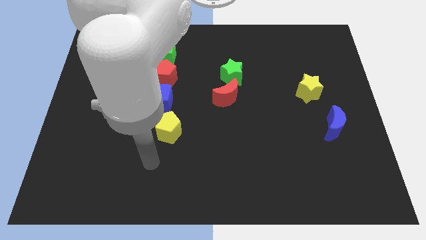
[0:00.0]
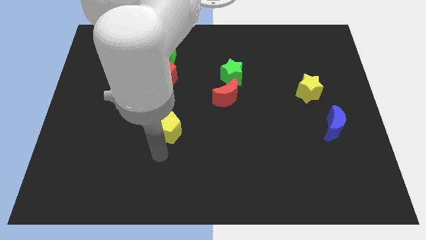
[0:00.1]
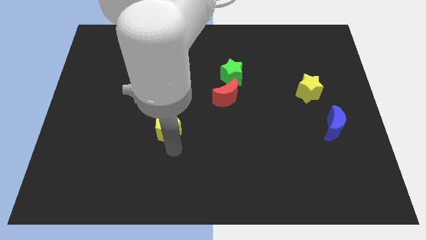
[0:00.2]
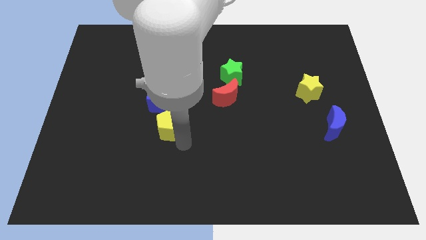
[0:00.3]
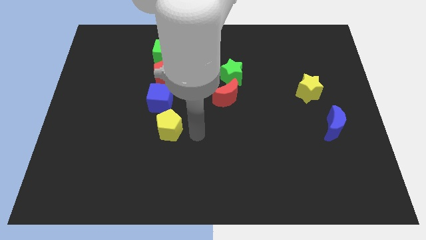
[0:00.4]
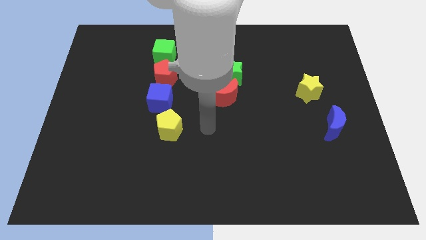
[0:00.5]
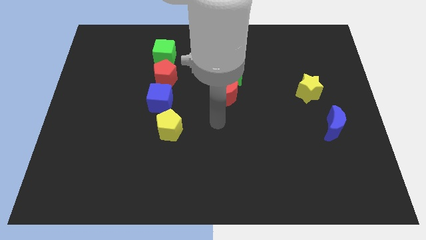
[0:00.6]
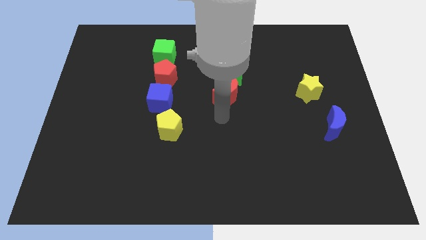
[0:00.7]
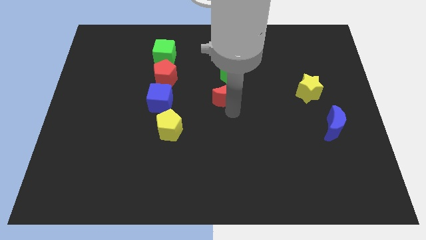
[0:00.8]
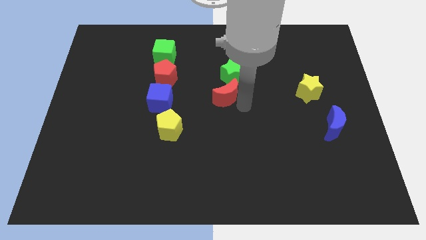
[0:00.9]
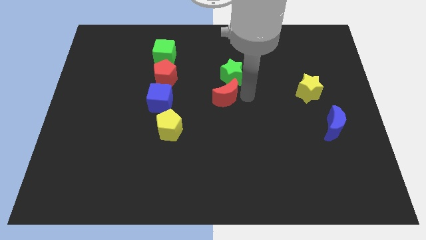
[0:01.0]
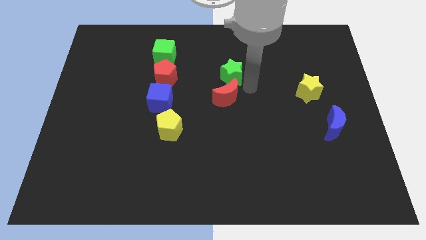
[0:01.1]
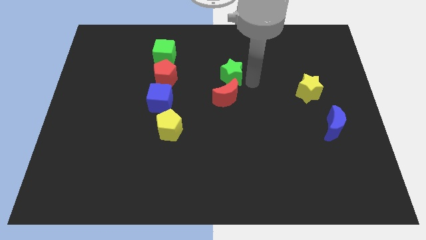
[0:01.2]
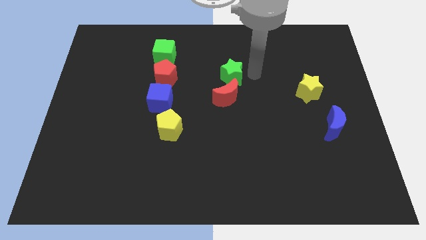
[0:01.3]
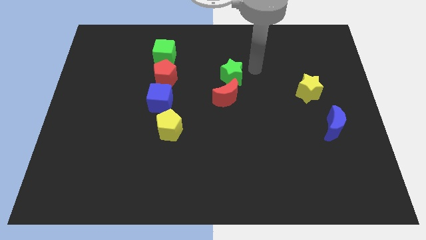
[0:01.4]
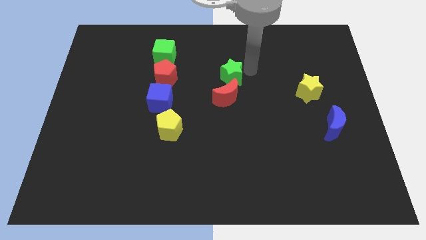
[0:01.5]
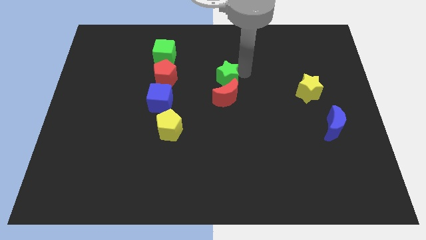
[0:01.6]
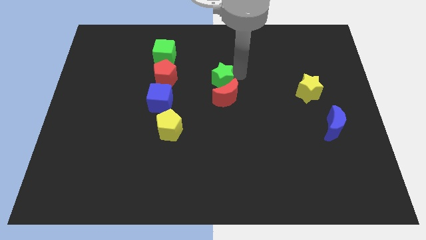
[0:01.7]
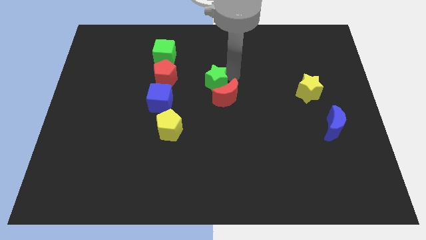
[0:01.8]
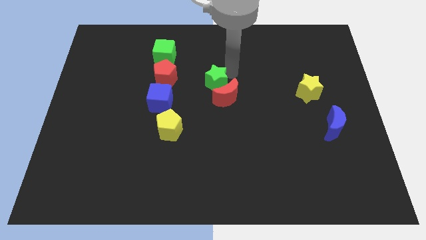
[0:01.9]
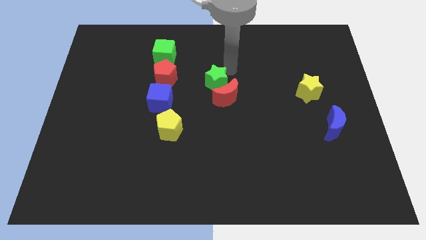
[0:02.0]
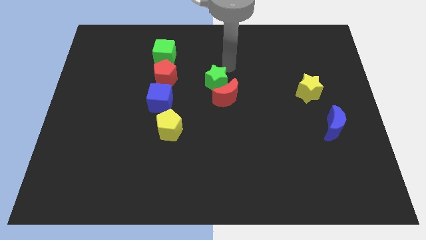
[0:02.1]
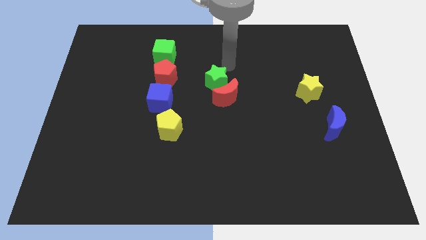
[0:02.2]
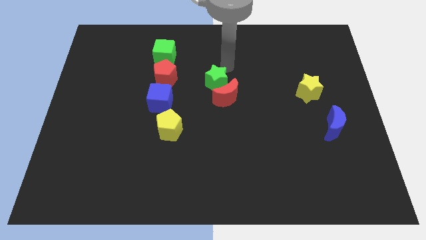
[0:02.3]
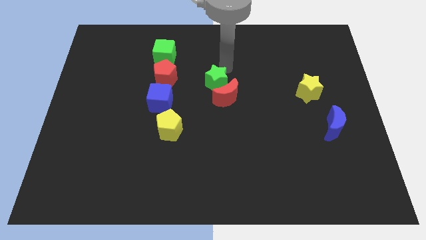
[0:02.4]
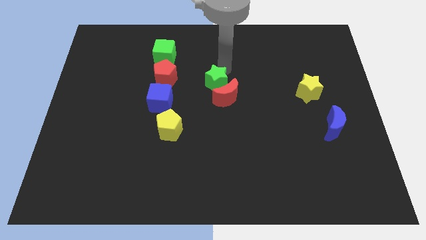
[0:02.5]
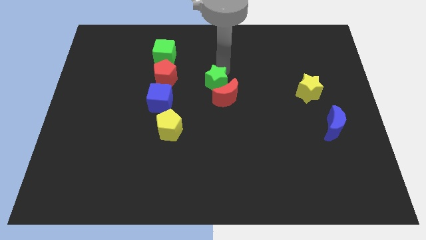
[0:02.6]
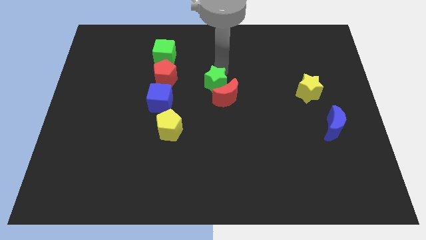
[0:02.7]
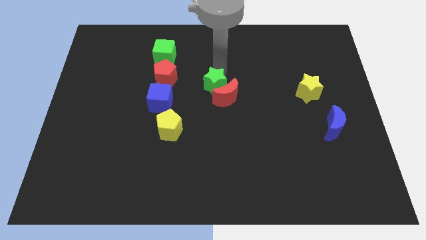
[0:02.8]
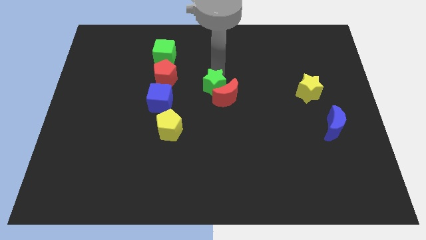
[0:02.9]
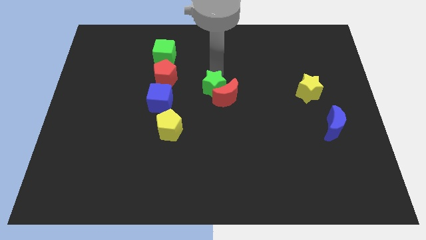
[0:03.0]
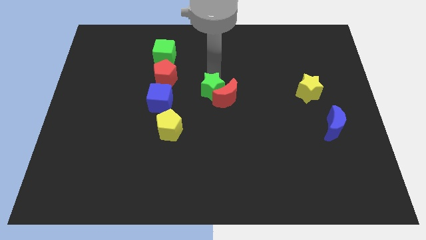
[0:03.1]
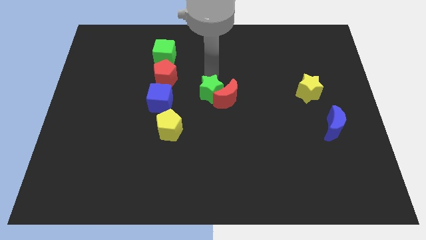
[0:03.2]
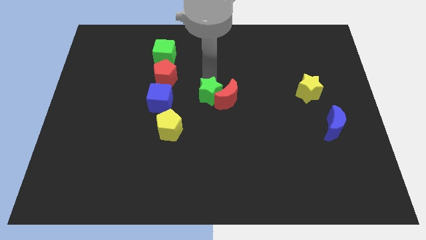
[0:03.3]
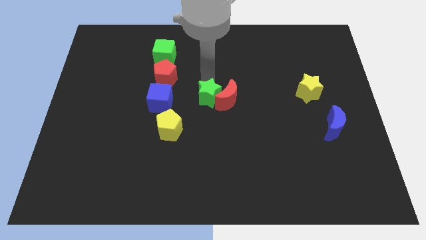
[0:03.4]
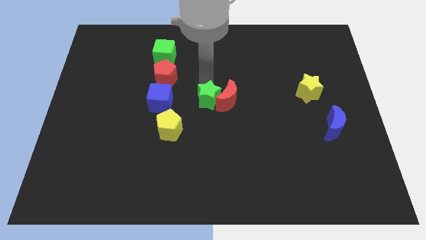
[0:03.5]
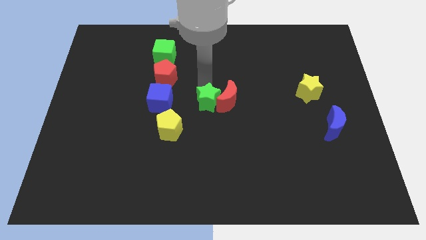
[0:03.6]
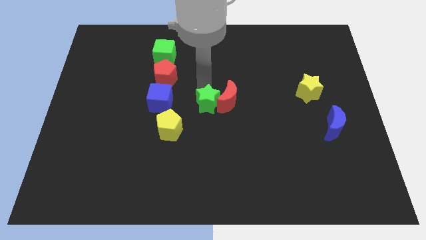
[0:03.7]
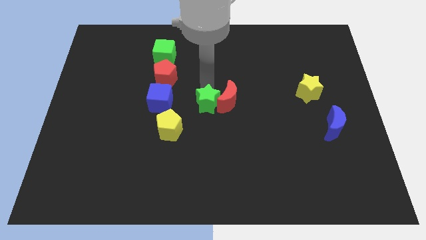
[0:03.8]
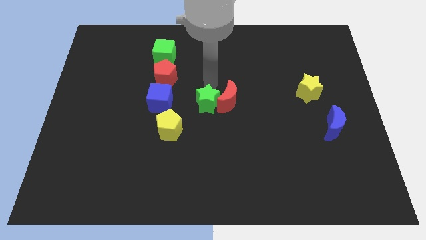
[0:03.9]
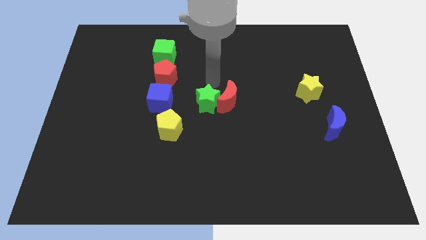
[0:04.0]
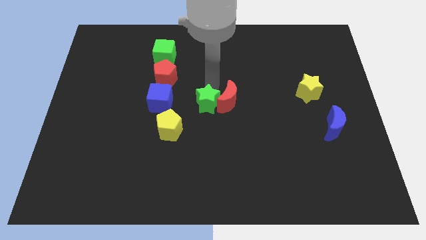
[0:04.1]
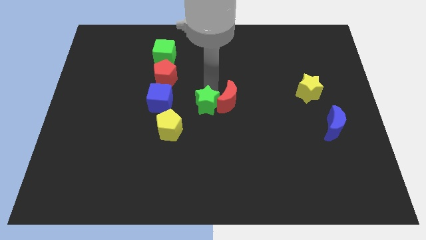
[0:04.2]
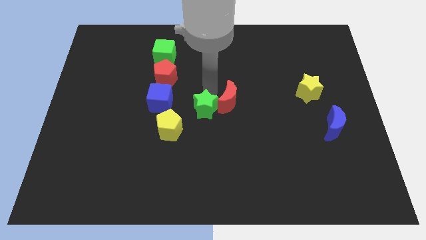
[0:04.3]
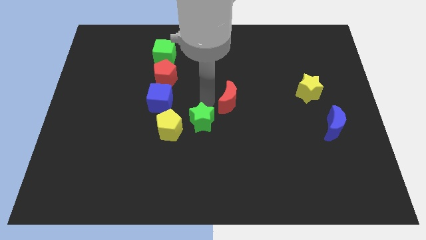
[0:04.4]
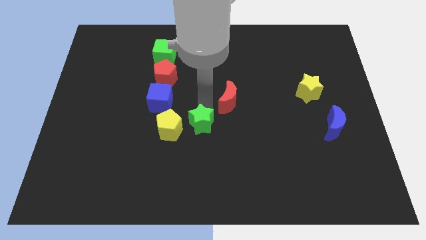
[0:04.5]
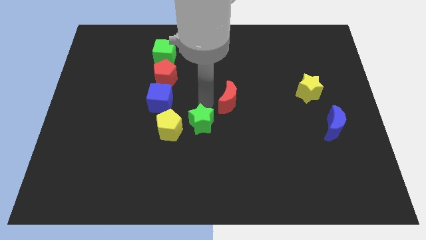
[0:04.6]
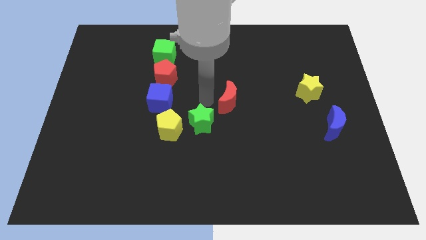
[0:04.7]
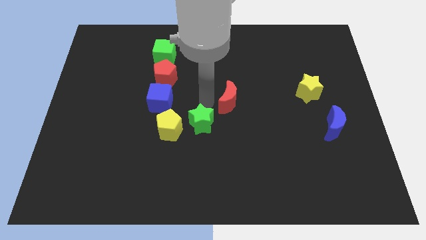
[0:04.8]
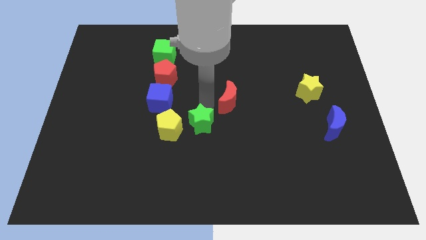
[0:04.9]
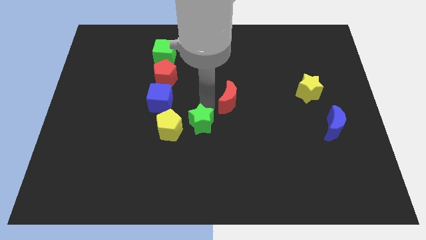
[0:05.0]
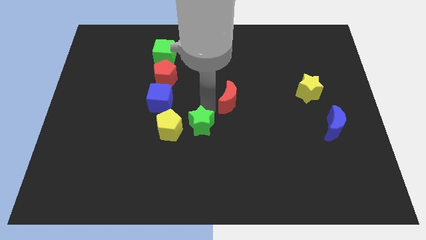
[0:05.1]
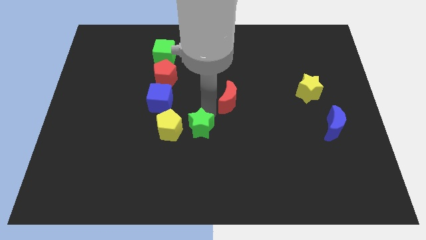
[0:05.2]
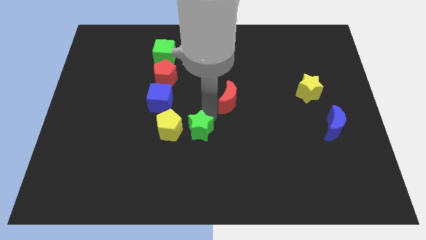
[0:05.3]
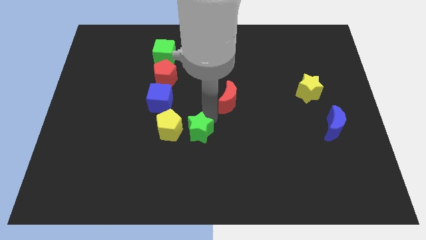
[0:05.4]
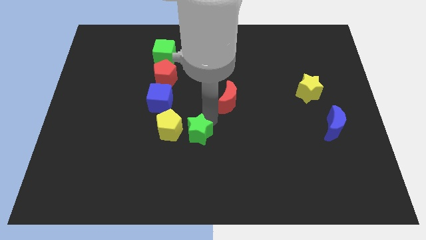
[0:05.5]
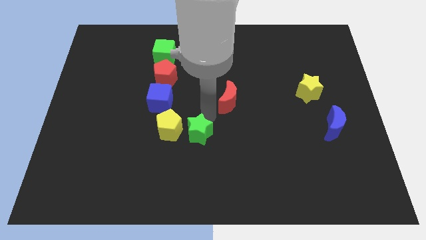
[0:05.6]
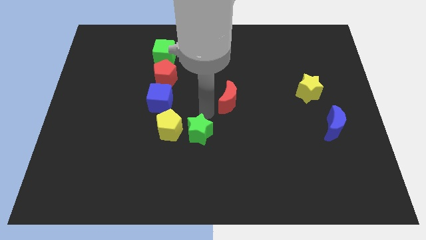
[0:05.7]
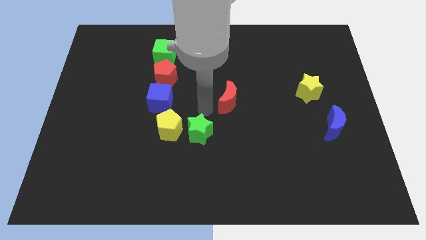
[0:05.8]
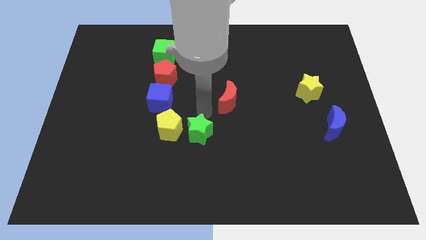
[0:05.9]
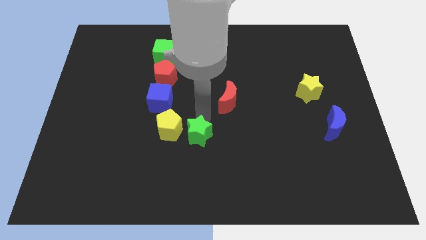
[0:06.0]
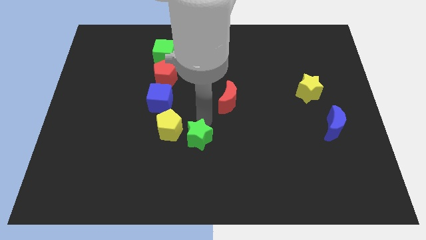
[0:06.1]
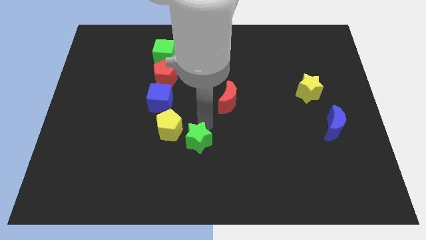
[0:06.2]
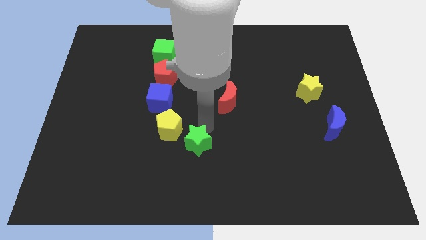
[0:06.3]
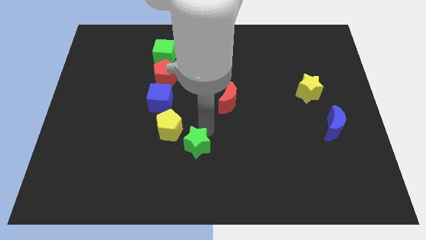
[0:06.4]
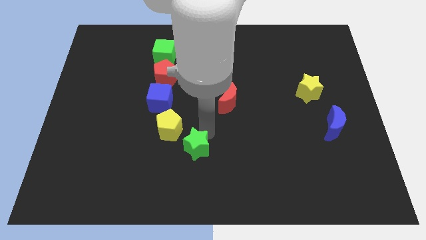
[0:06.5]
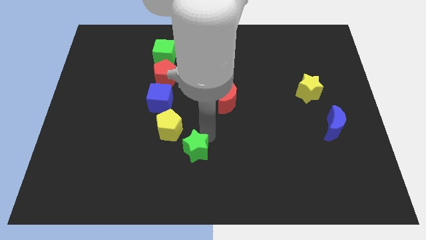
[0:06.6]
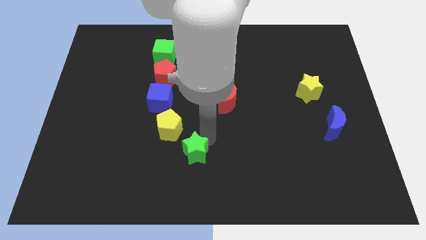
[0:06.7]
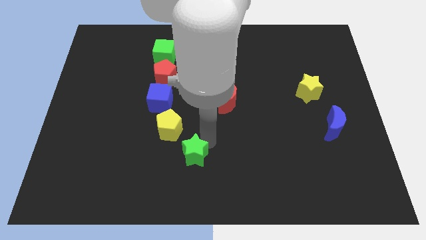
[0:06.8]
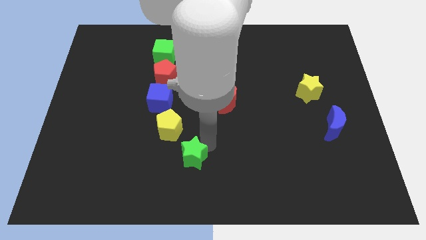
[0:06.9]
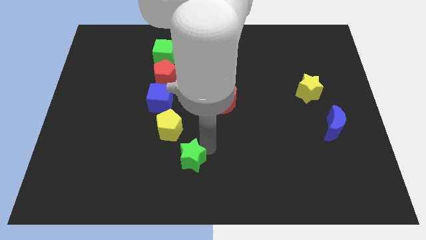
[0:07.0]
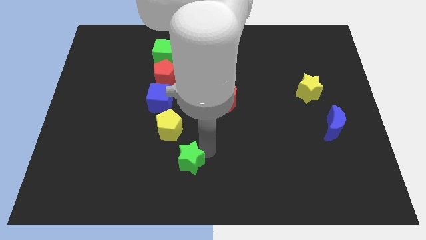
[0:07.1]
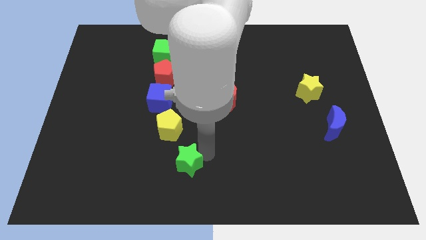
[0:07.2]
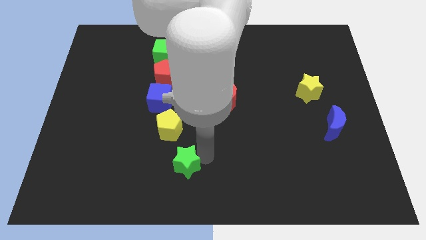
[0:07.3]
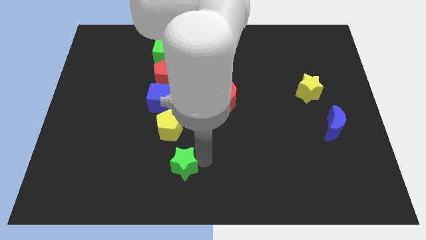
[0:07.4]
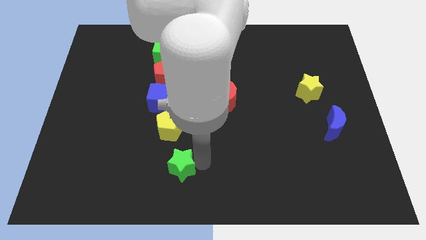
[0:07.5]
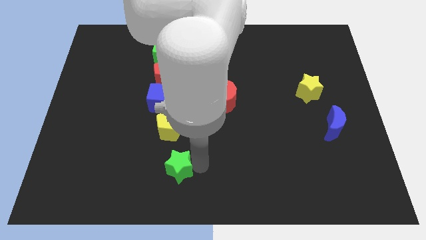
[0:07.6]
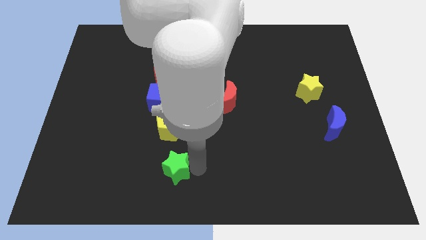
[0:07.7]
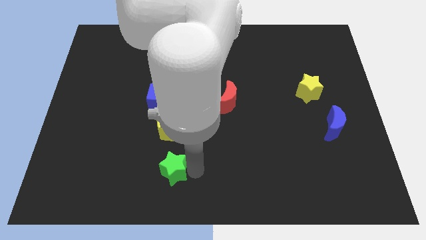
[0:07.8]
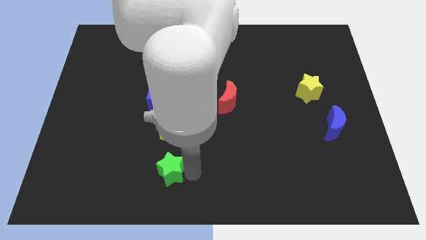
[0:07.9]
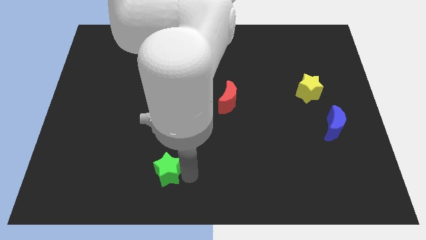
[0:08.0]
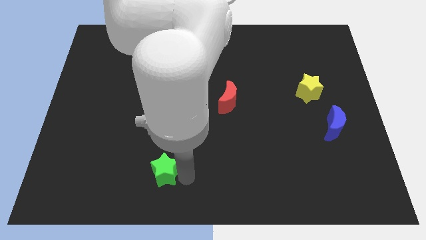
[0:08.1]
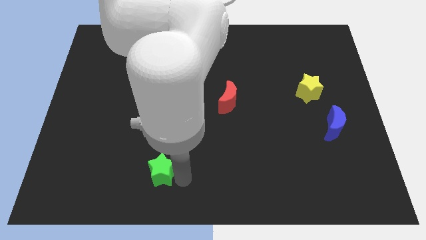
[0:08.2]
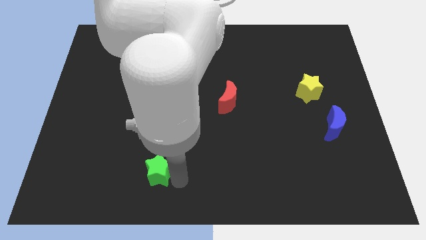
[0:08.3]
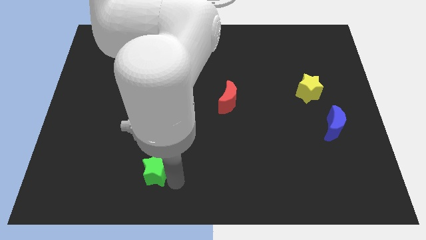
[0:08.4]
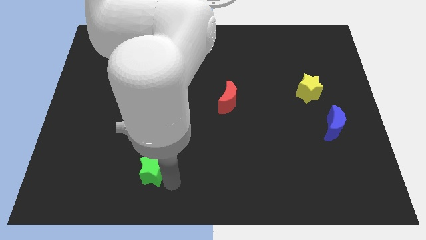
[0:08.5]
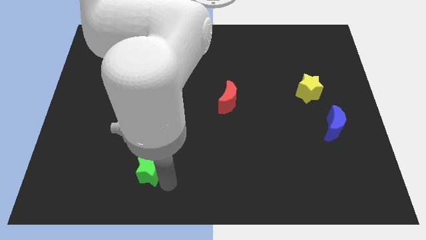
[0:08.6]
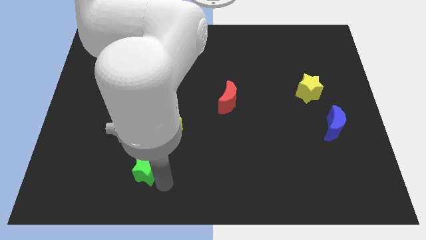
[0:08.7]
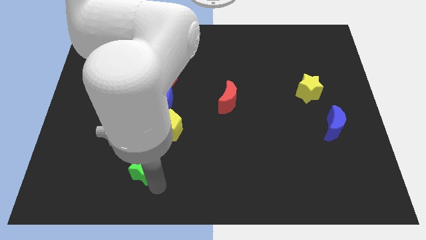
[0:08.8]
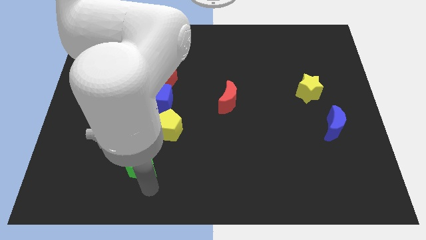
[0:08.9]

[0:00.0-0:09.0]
push the green star to the bottom left of the yellow pentagon
